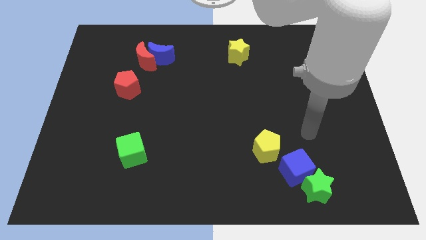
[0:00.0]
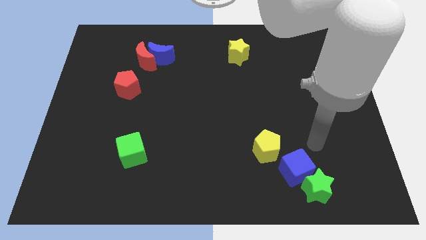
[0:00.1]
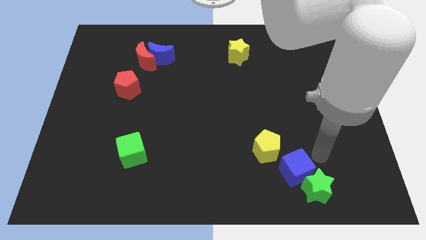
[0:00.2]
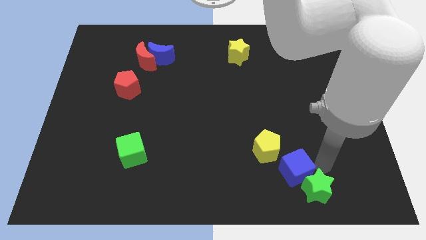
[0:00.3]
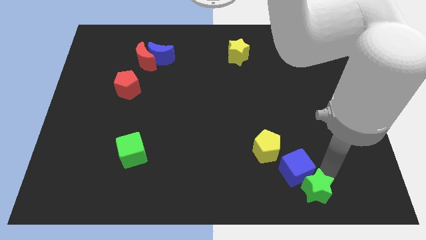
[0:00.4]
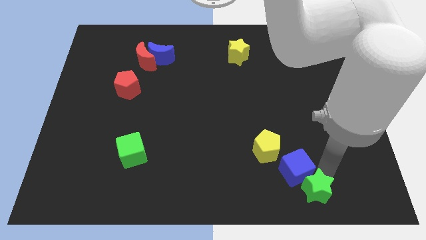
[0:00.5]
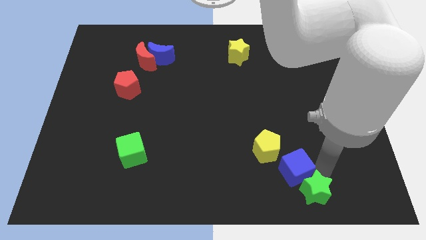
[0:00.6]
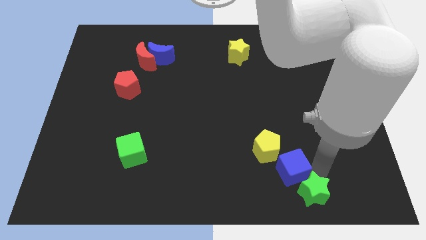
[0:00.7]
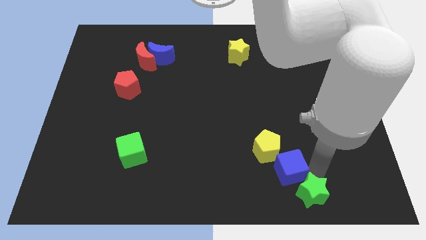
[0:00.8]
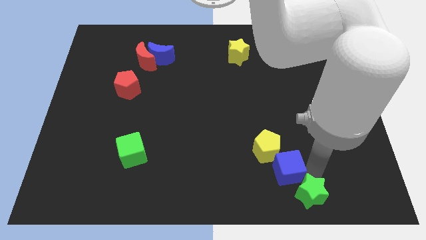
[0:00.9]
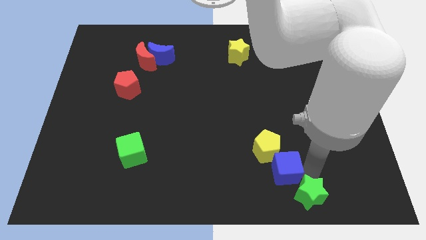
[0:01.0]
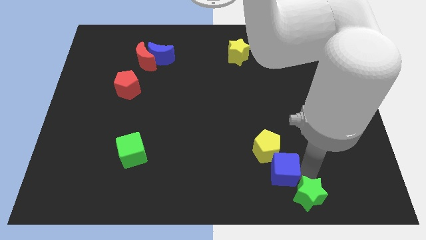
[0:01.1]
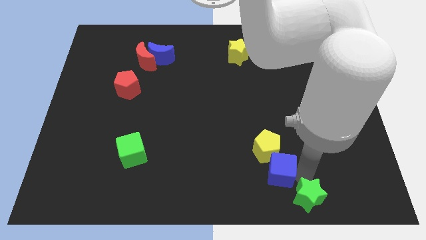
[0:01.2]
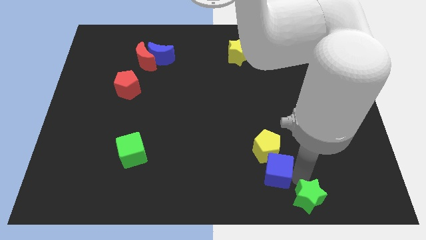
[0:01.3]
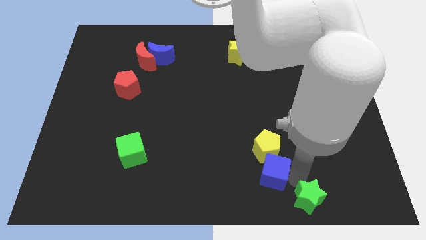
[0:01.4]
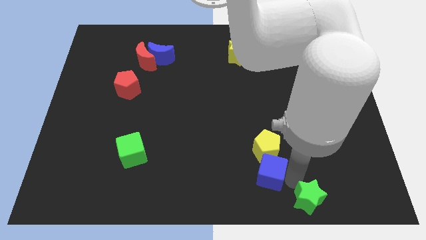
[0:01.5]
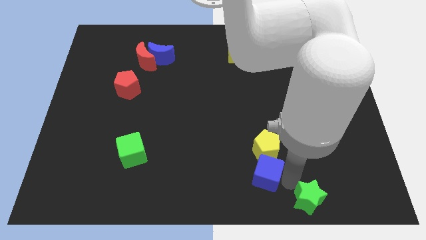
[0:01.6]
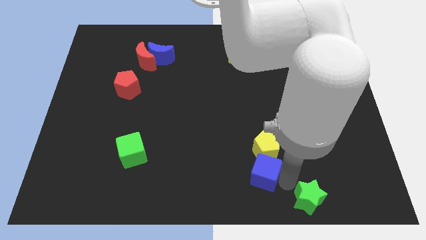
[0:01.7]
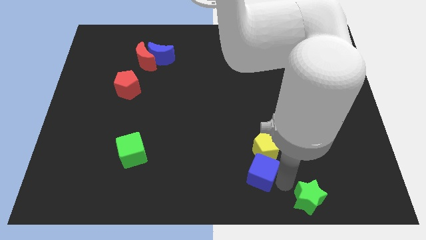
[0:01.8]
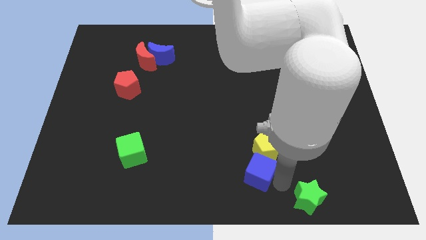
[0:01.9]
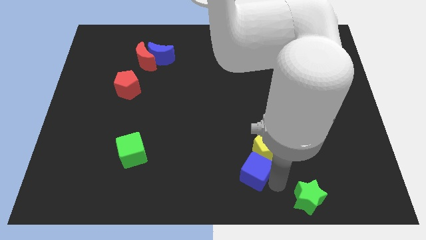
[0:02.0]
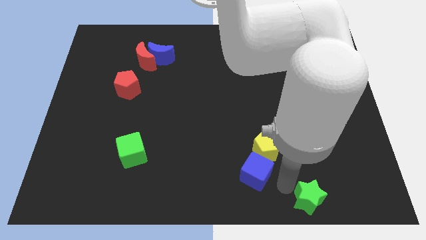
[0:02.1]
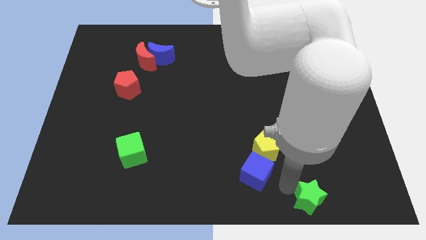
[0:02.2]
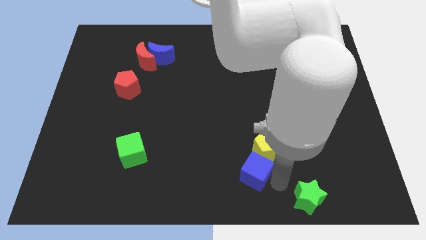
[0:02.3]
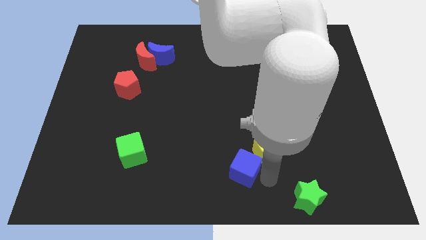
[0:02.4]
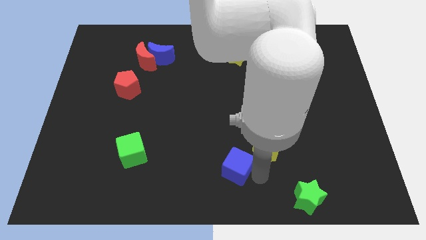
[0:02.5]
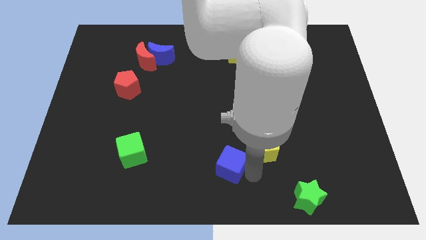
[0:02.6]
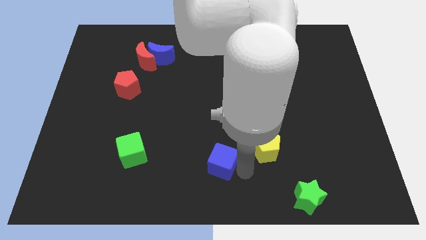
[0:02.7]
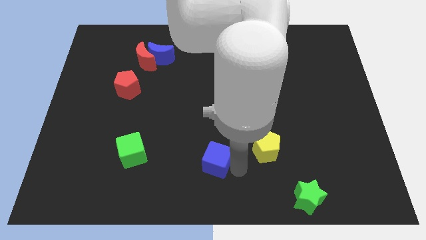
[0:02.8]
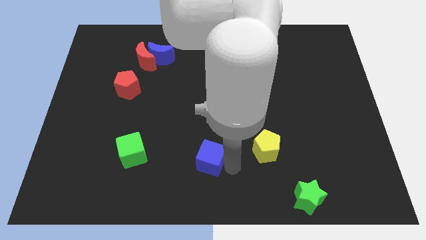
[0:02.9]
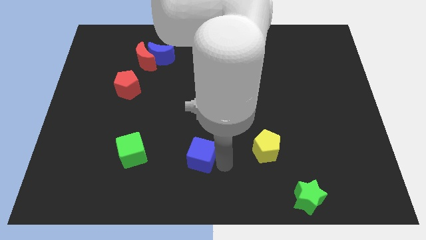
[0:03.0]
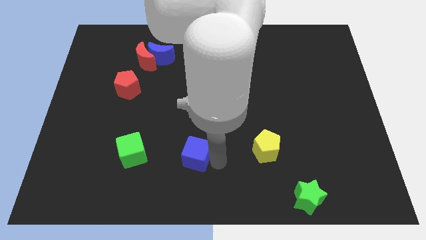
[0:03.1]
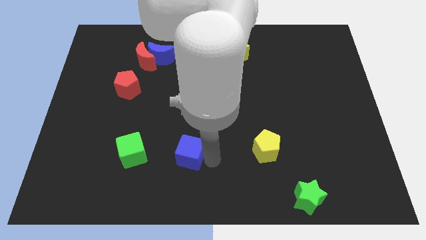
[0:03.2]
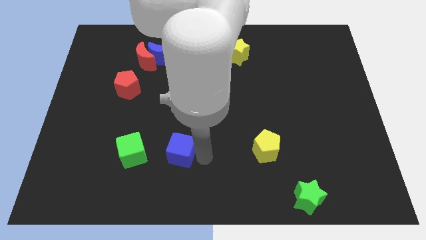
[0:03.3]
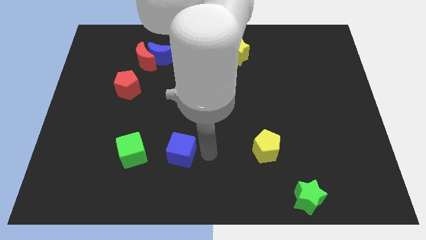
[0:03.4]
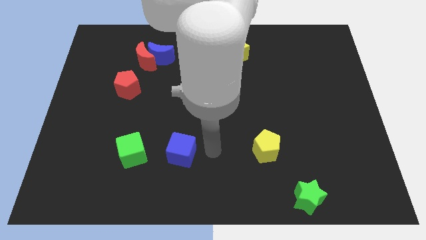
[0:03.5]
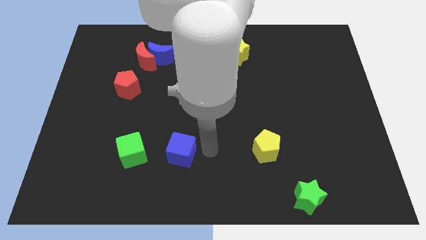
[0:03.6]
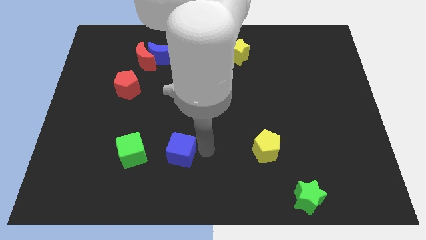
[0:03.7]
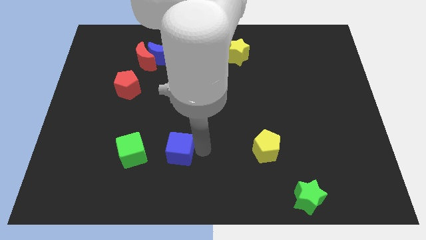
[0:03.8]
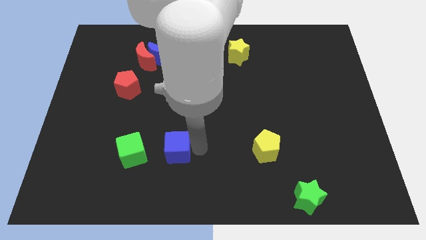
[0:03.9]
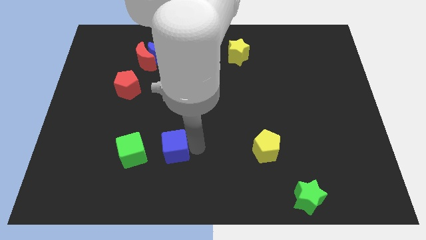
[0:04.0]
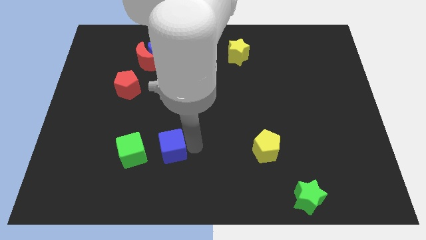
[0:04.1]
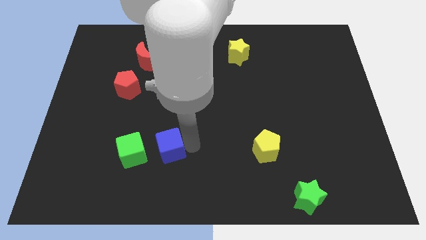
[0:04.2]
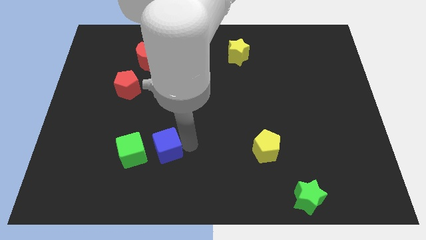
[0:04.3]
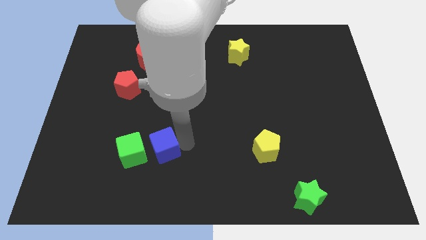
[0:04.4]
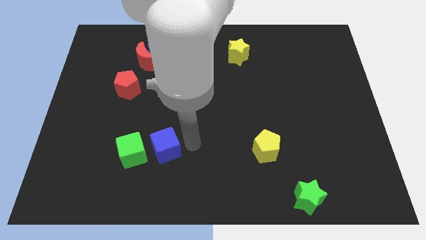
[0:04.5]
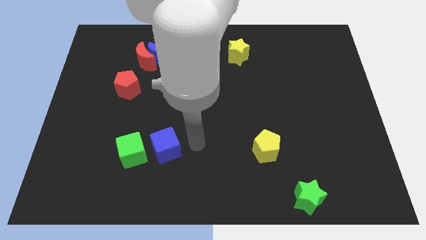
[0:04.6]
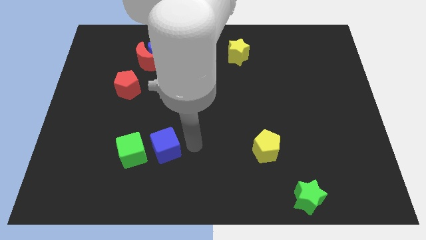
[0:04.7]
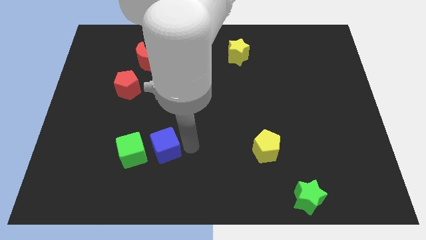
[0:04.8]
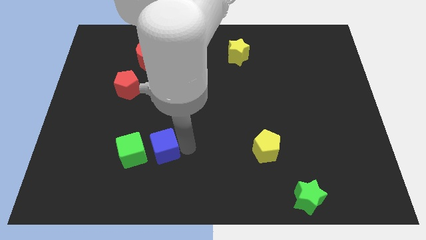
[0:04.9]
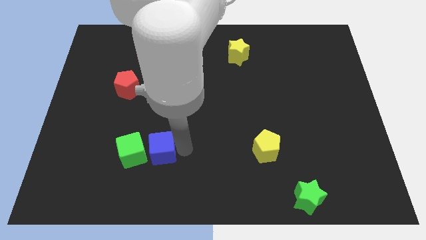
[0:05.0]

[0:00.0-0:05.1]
move the blue cube to the green cube

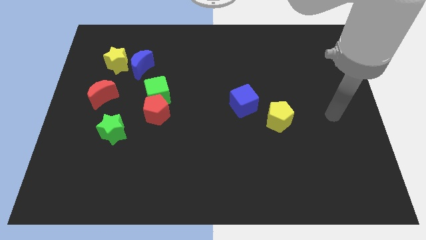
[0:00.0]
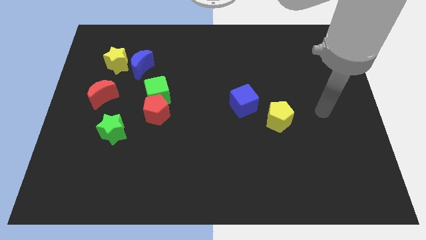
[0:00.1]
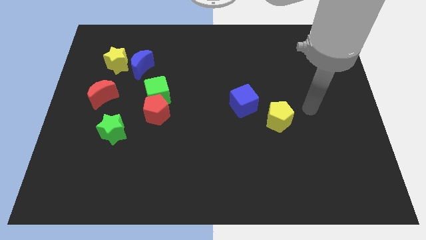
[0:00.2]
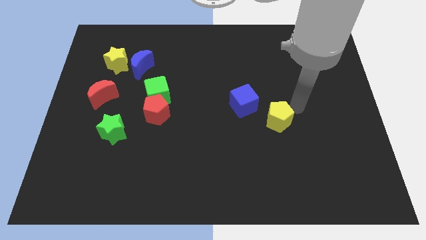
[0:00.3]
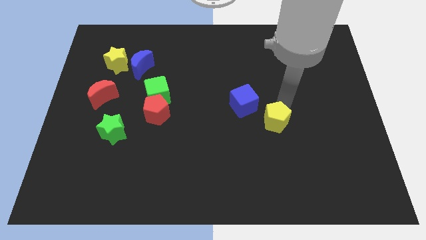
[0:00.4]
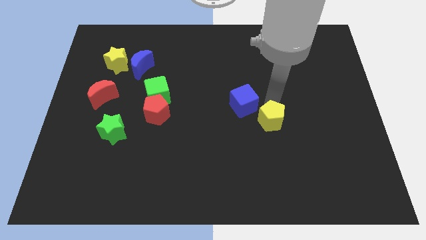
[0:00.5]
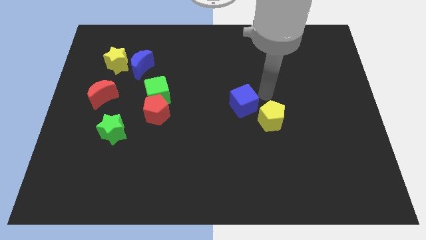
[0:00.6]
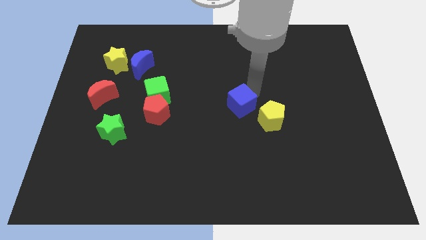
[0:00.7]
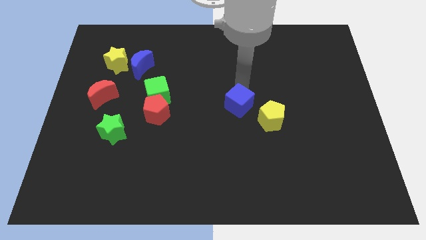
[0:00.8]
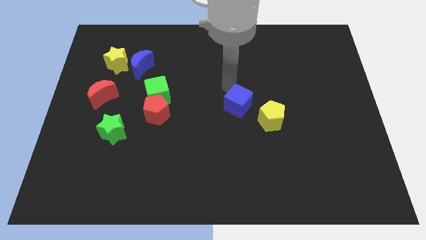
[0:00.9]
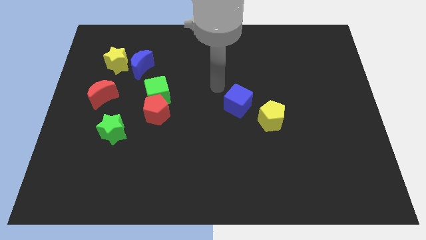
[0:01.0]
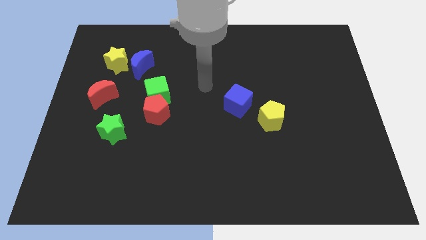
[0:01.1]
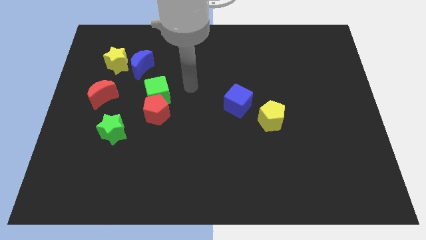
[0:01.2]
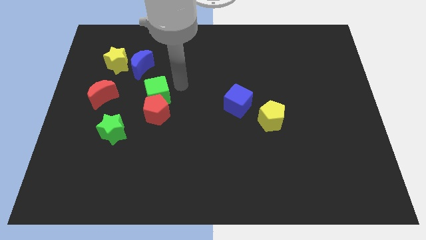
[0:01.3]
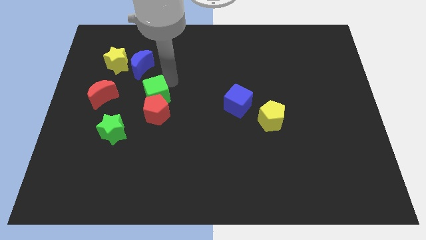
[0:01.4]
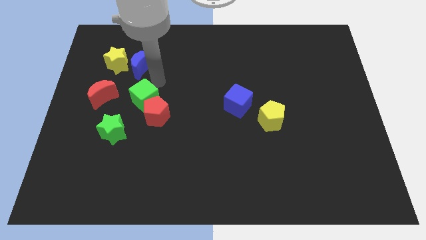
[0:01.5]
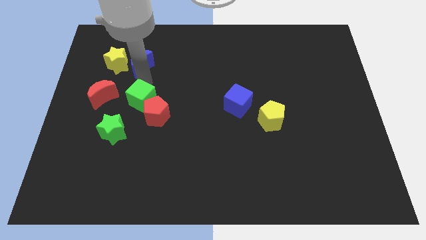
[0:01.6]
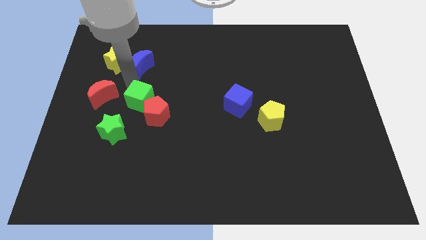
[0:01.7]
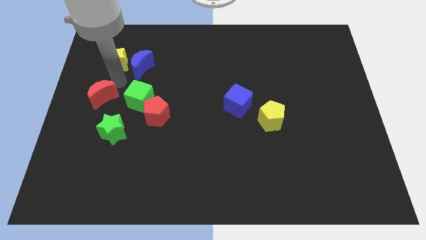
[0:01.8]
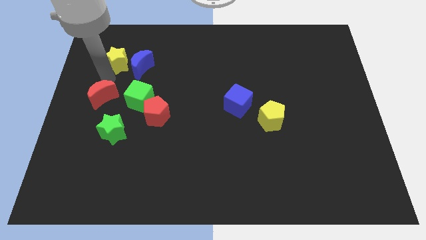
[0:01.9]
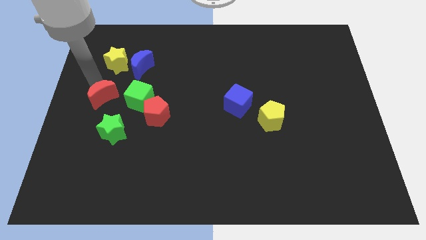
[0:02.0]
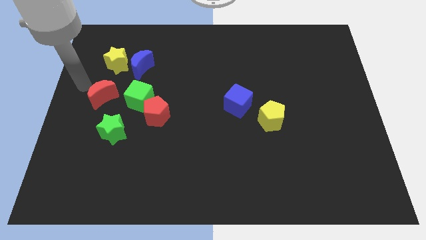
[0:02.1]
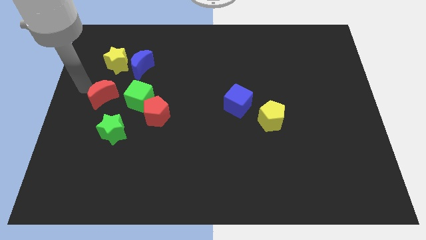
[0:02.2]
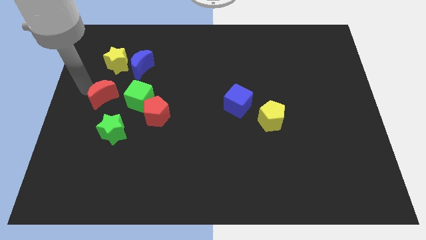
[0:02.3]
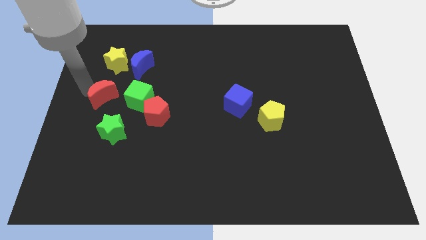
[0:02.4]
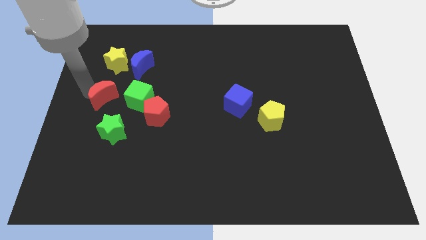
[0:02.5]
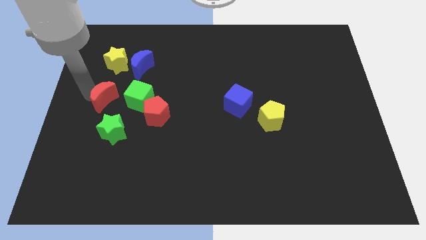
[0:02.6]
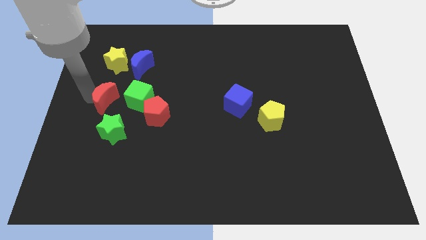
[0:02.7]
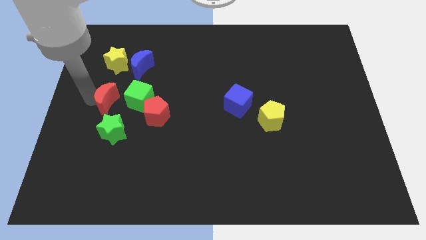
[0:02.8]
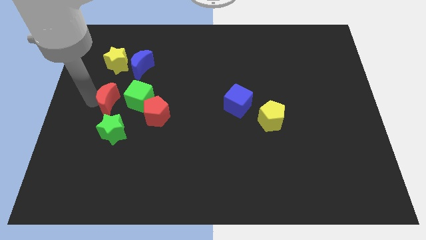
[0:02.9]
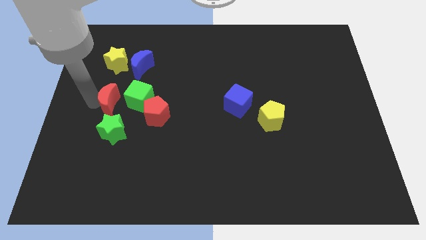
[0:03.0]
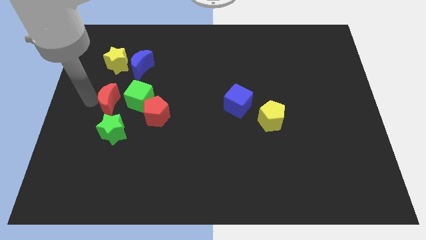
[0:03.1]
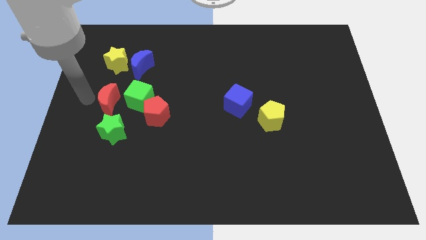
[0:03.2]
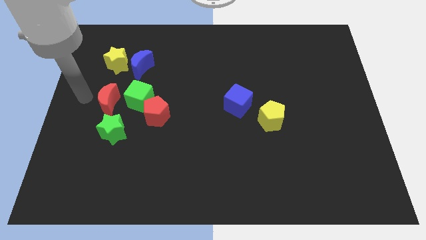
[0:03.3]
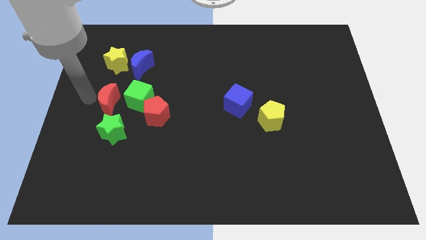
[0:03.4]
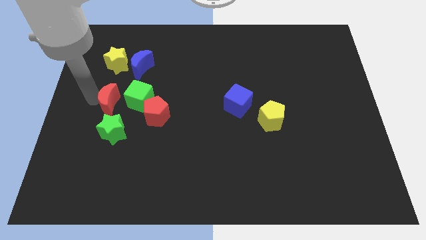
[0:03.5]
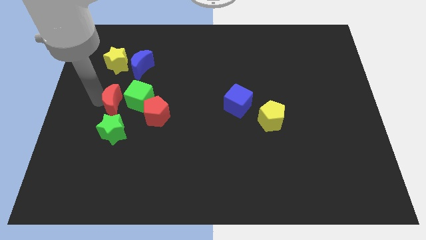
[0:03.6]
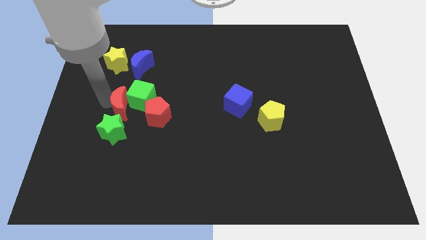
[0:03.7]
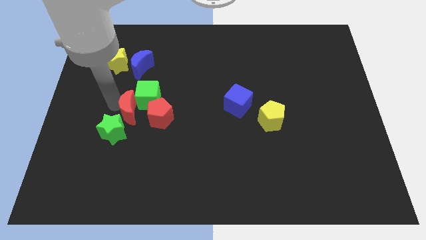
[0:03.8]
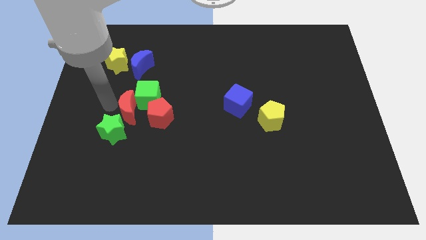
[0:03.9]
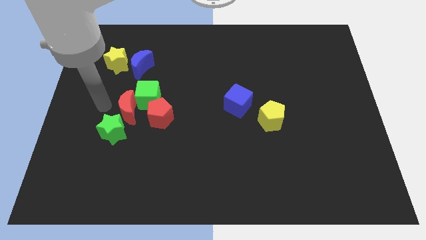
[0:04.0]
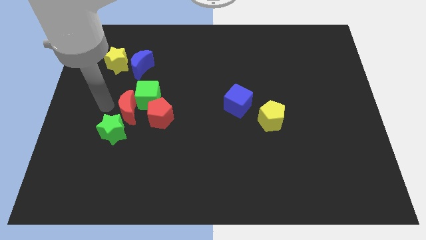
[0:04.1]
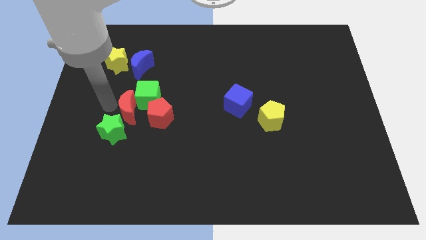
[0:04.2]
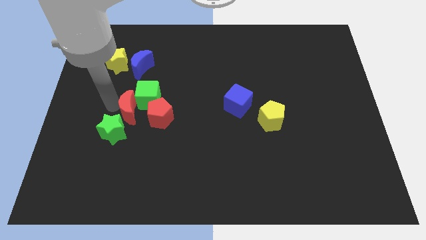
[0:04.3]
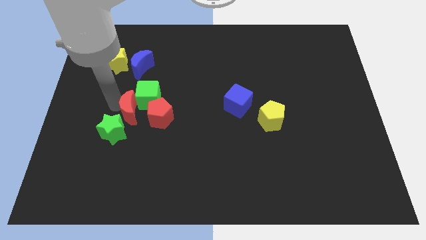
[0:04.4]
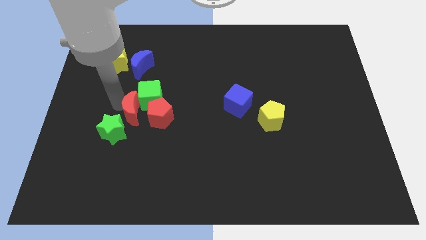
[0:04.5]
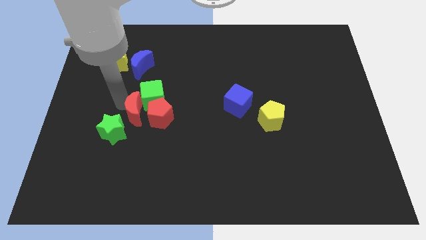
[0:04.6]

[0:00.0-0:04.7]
push the red moon to the red pentagon
